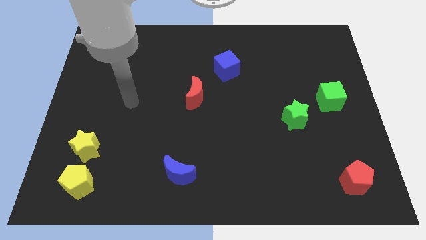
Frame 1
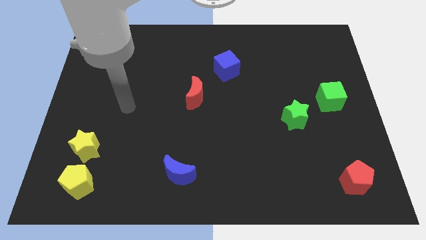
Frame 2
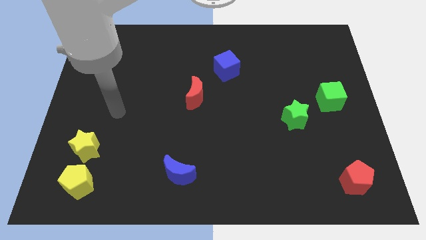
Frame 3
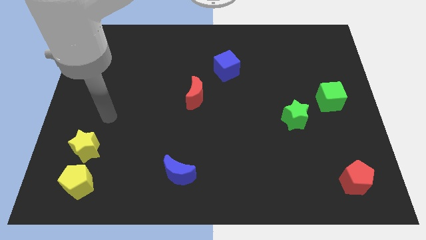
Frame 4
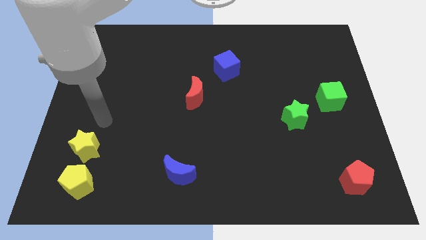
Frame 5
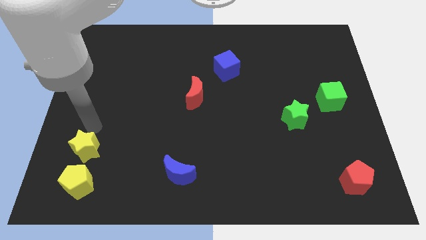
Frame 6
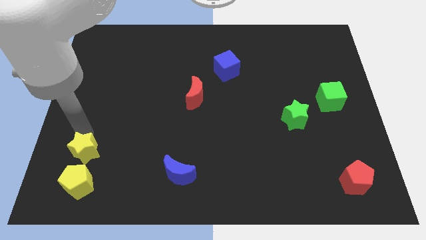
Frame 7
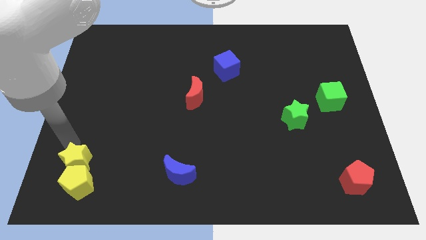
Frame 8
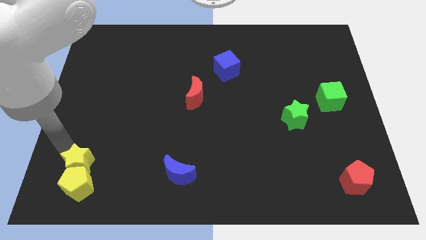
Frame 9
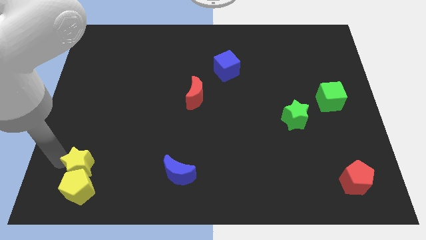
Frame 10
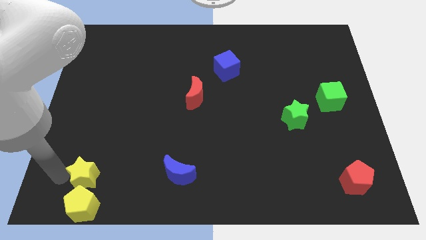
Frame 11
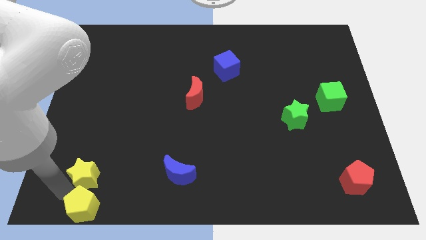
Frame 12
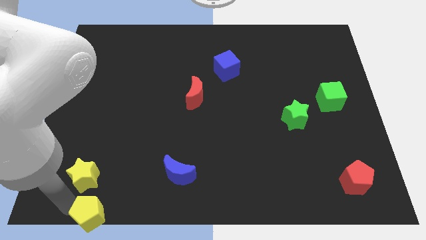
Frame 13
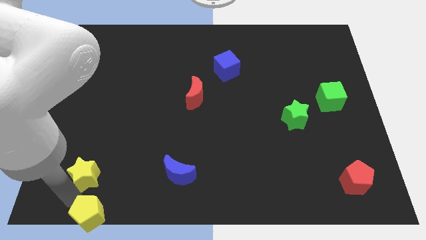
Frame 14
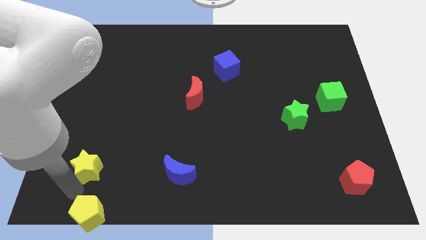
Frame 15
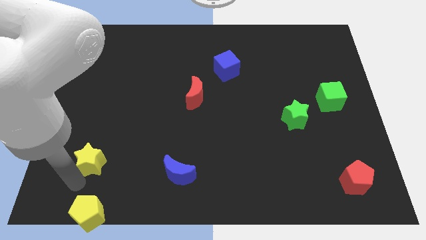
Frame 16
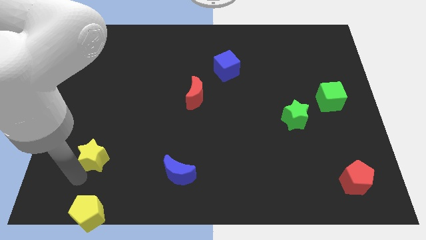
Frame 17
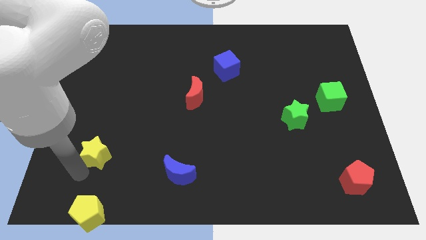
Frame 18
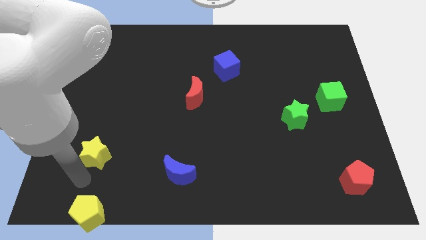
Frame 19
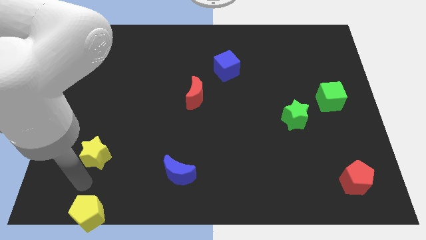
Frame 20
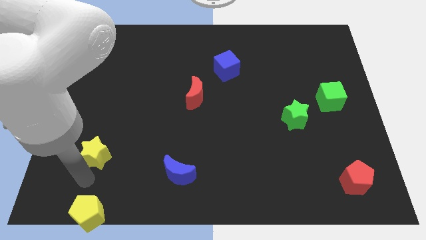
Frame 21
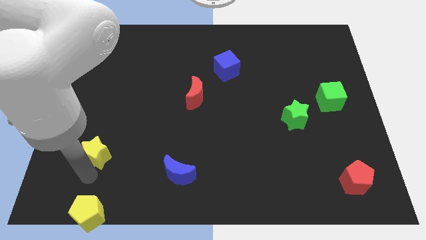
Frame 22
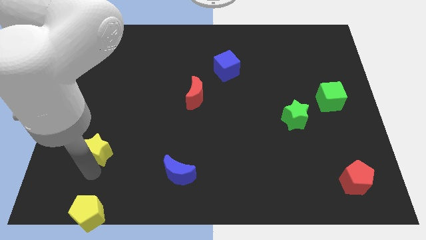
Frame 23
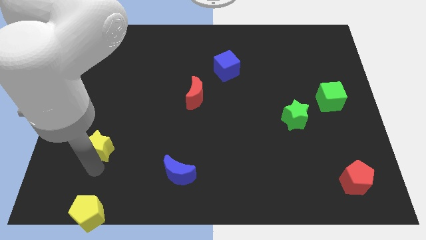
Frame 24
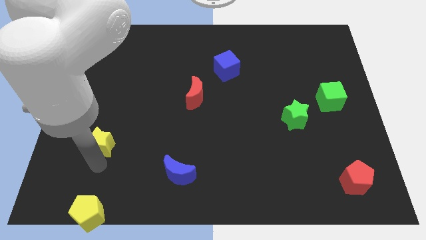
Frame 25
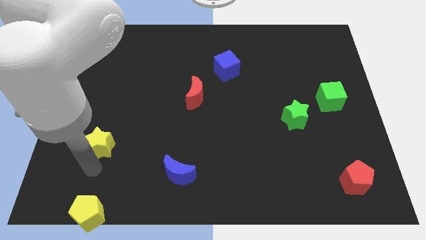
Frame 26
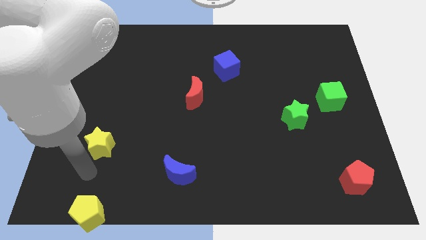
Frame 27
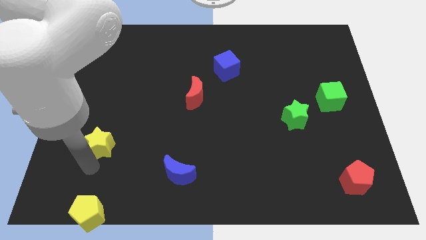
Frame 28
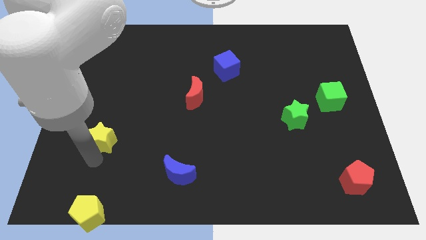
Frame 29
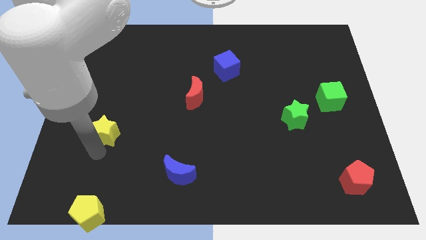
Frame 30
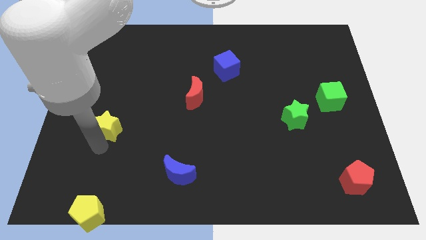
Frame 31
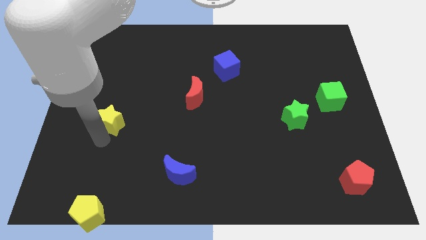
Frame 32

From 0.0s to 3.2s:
push the yellow star up and to the right somewhat

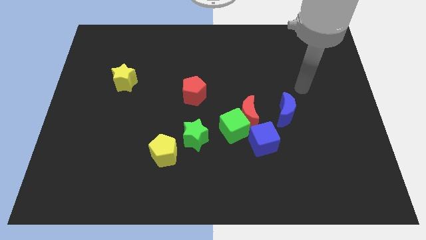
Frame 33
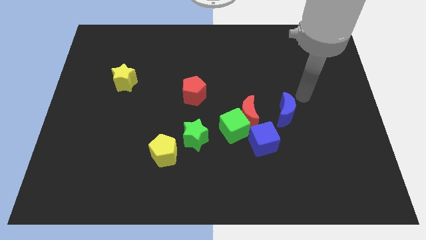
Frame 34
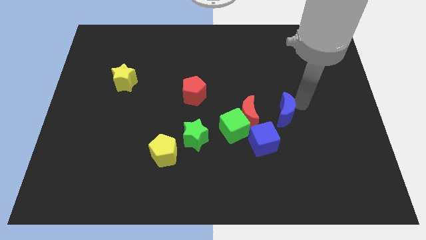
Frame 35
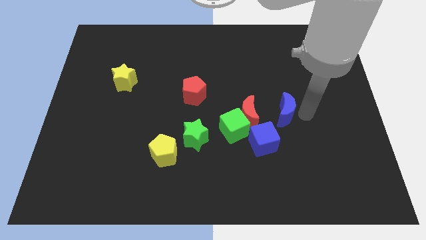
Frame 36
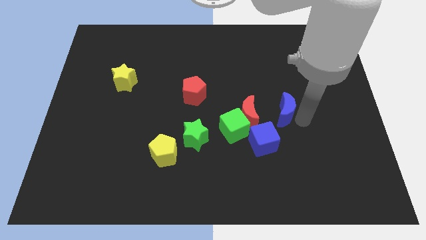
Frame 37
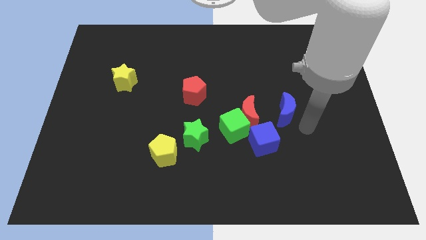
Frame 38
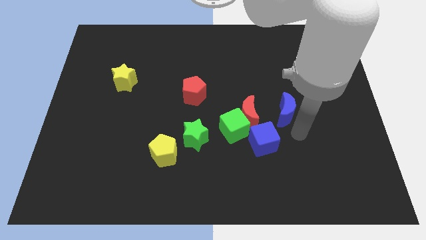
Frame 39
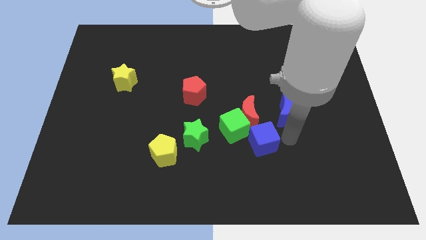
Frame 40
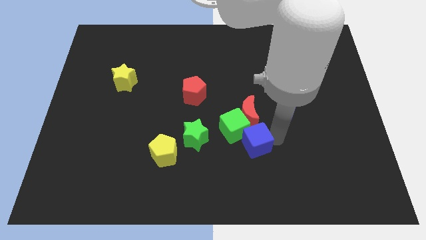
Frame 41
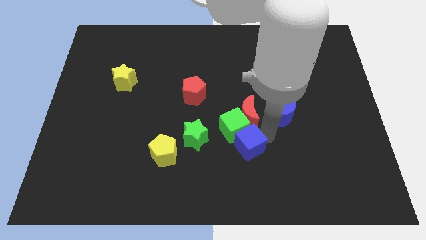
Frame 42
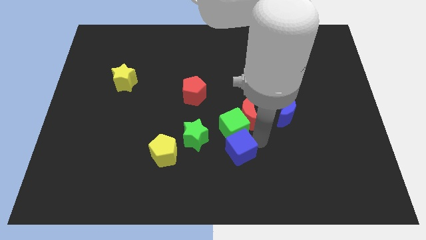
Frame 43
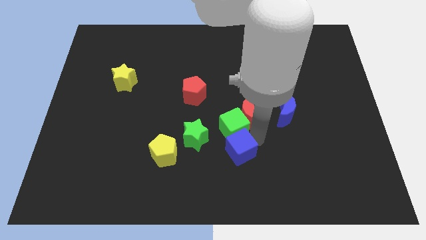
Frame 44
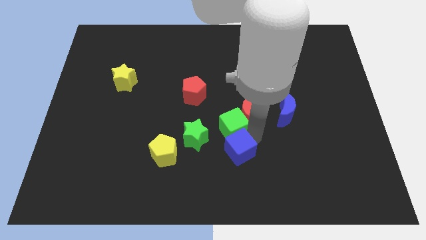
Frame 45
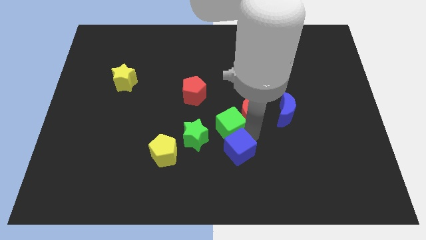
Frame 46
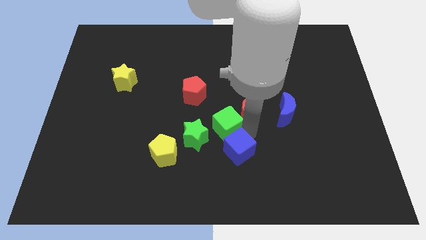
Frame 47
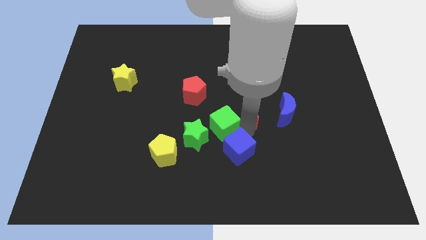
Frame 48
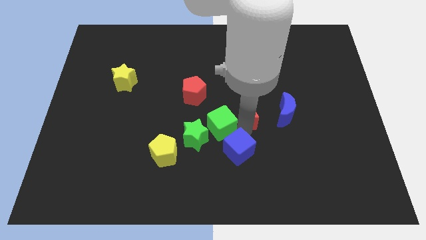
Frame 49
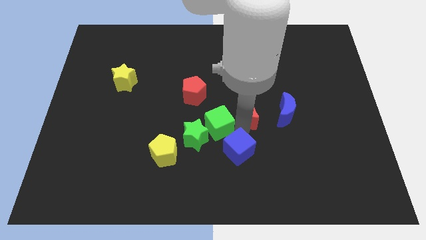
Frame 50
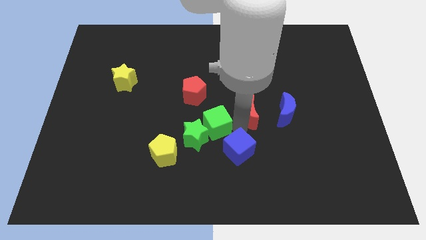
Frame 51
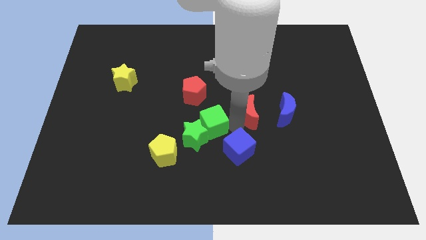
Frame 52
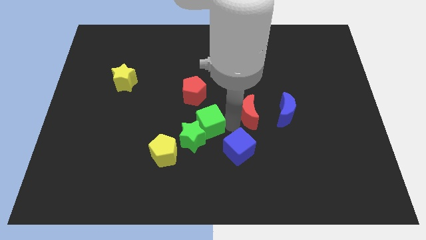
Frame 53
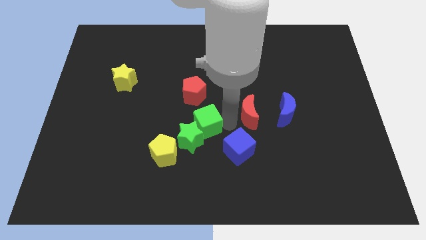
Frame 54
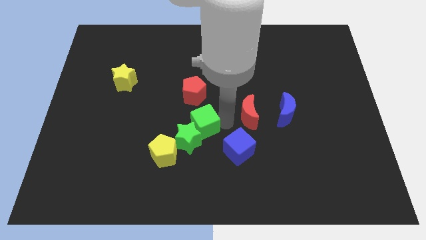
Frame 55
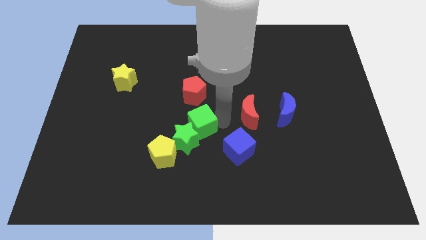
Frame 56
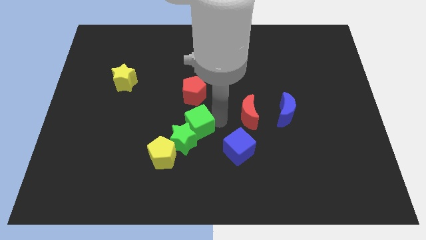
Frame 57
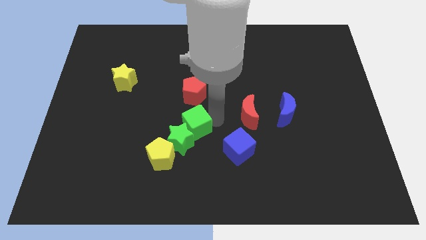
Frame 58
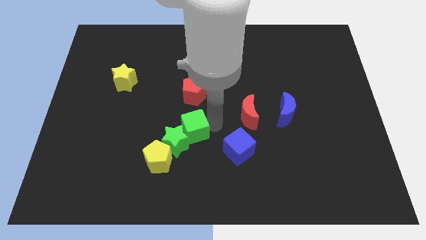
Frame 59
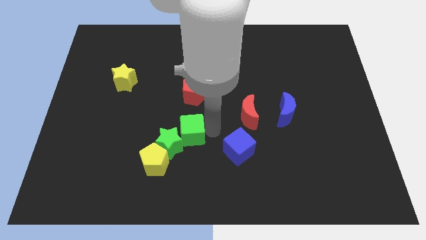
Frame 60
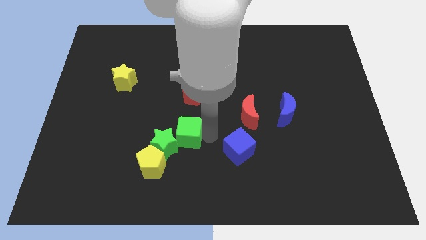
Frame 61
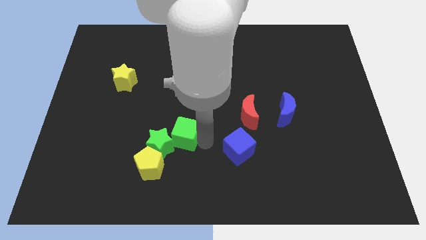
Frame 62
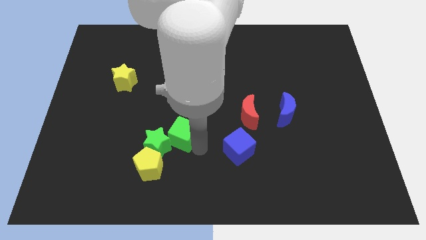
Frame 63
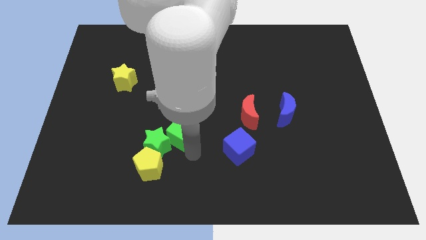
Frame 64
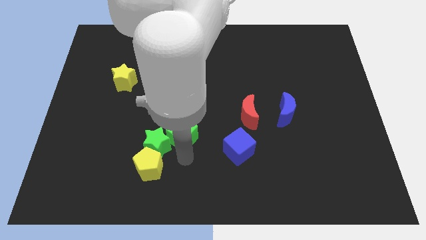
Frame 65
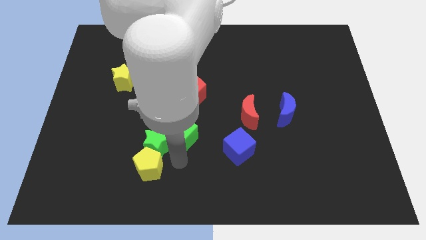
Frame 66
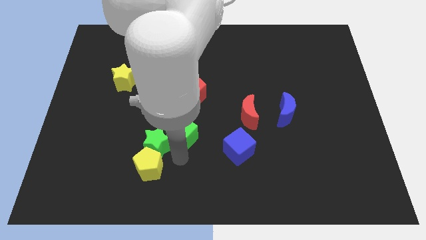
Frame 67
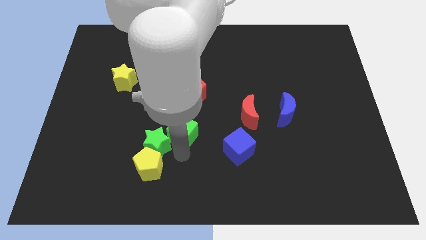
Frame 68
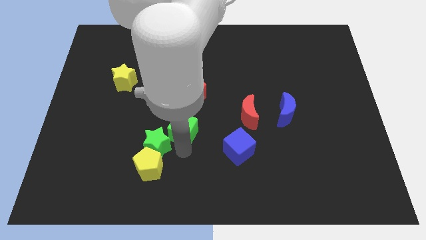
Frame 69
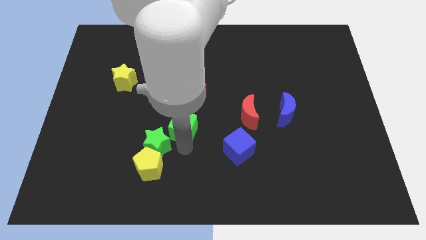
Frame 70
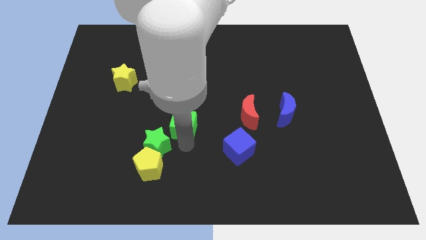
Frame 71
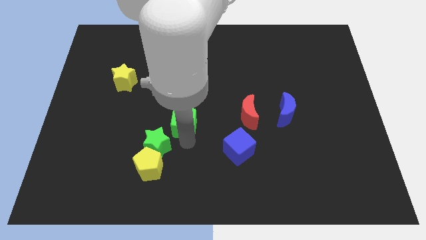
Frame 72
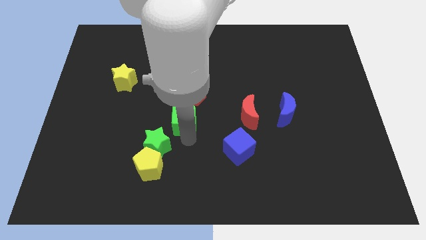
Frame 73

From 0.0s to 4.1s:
move the green cube a bit upwards and then to the left

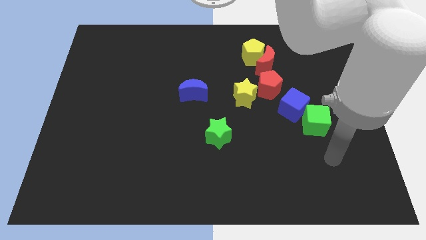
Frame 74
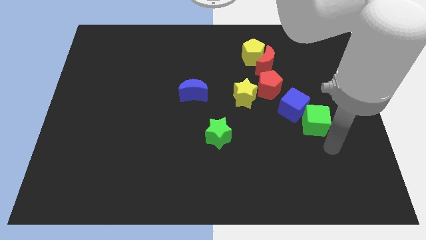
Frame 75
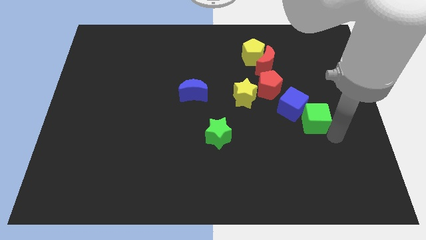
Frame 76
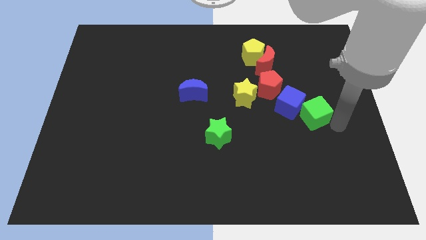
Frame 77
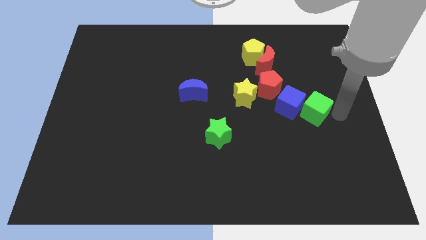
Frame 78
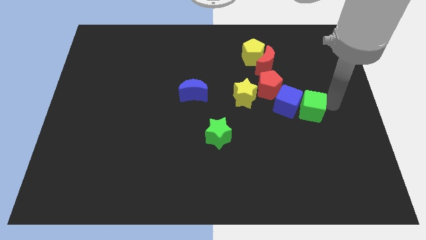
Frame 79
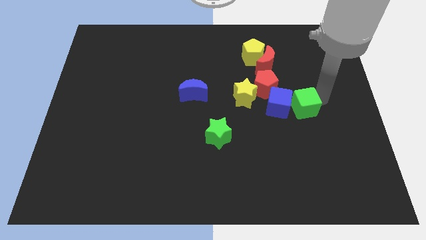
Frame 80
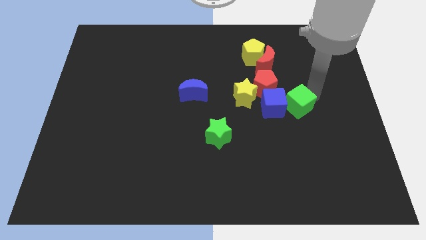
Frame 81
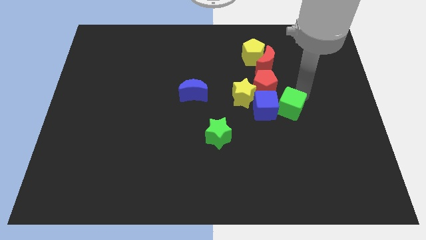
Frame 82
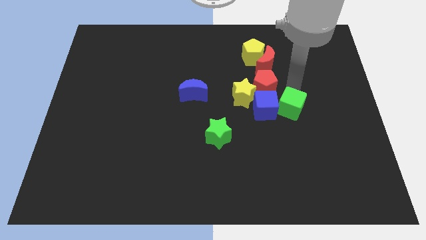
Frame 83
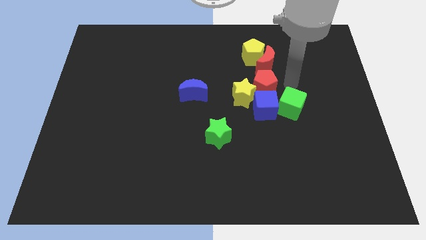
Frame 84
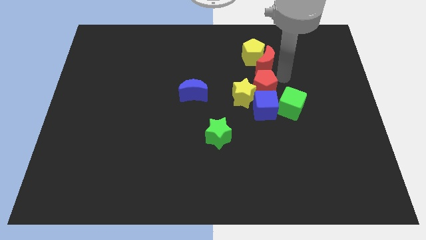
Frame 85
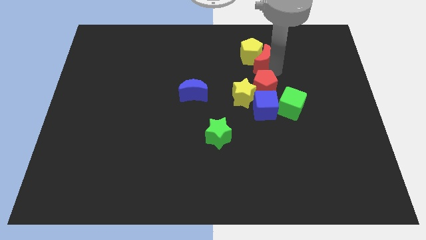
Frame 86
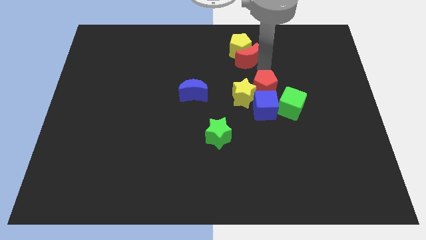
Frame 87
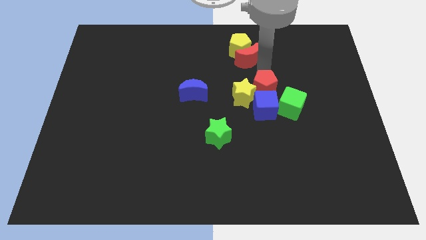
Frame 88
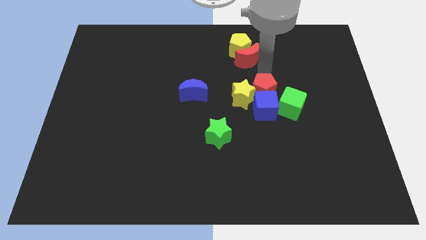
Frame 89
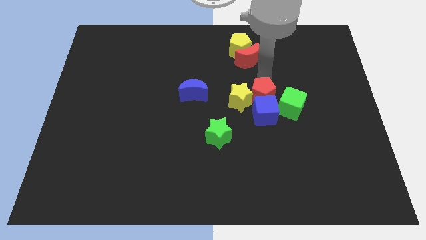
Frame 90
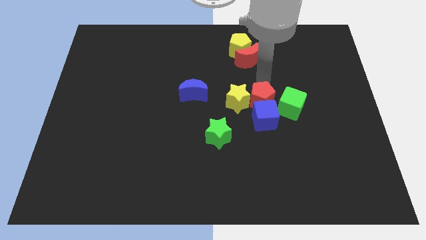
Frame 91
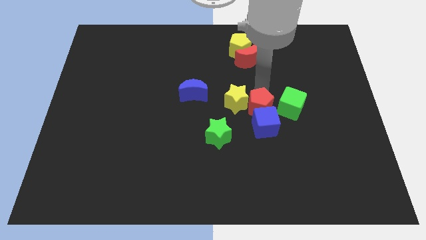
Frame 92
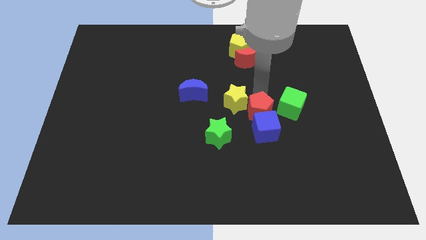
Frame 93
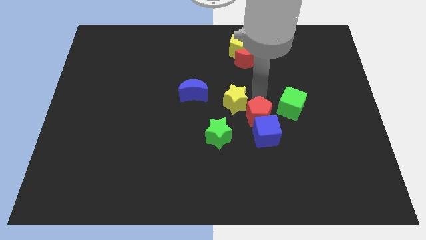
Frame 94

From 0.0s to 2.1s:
slightly move the red pentagon downwards
